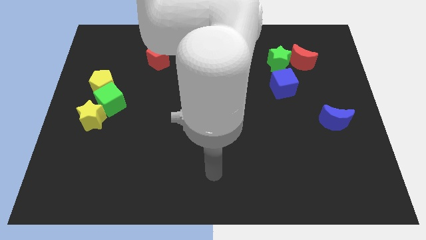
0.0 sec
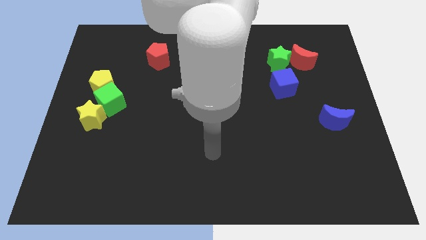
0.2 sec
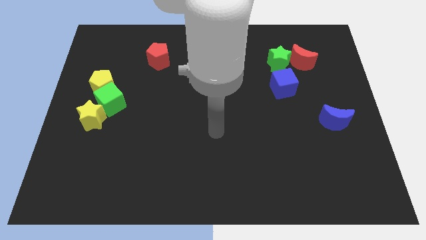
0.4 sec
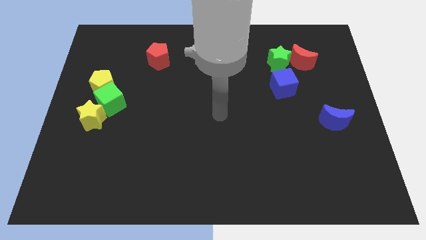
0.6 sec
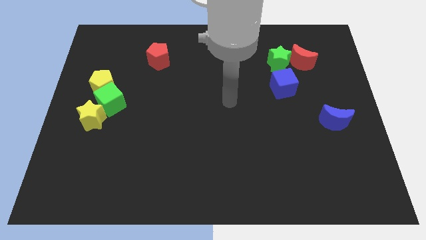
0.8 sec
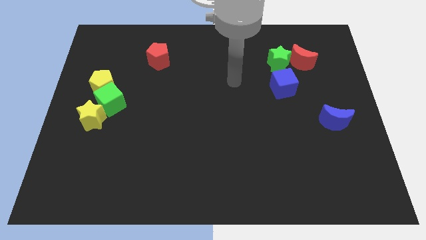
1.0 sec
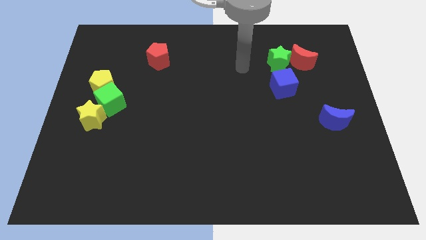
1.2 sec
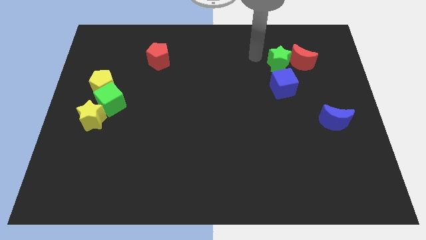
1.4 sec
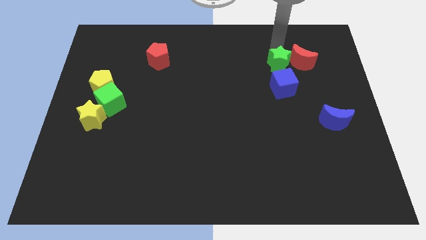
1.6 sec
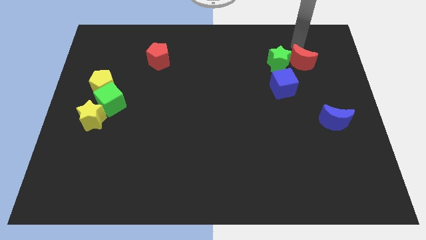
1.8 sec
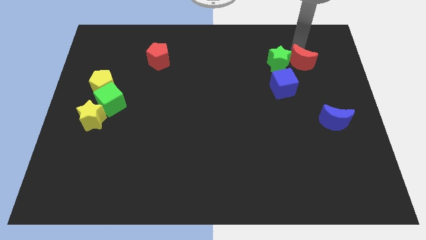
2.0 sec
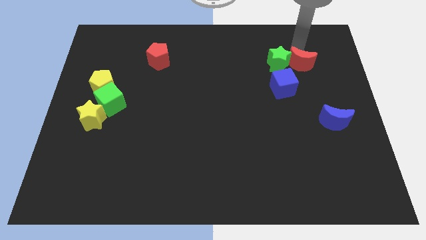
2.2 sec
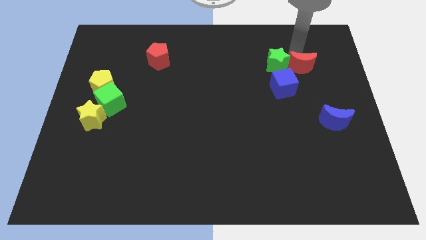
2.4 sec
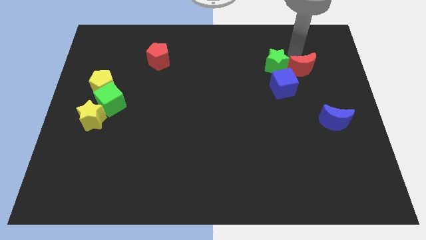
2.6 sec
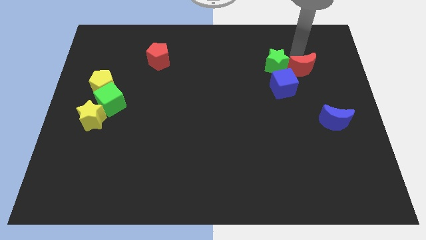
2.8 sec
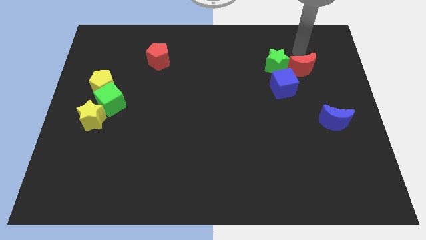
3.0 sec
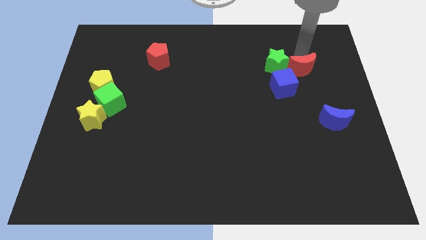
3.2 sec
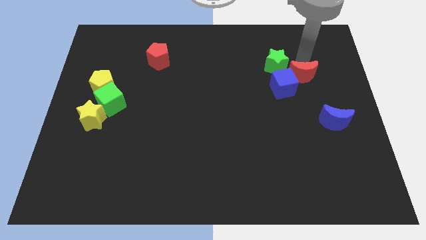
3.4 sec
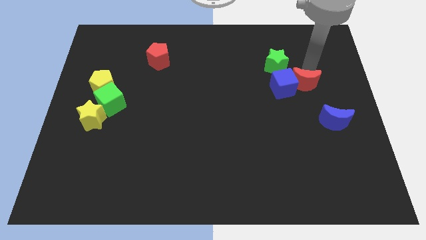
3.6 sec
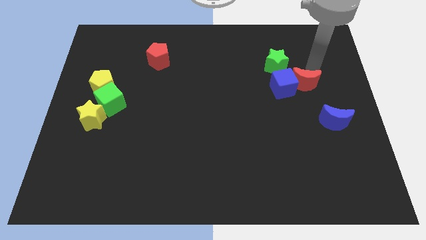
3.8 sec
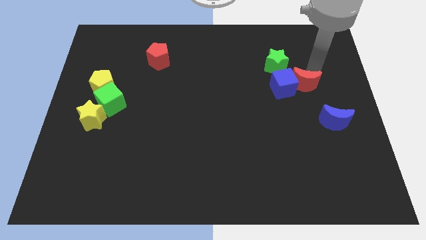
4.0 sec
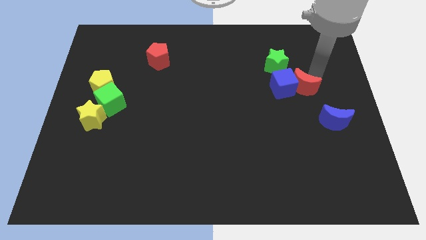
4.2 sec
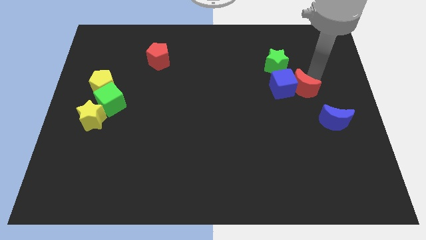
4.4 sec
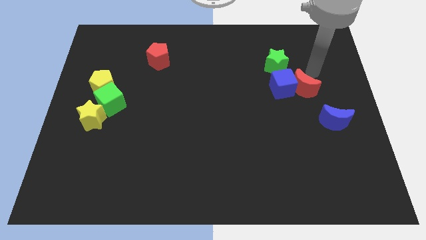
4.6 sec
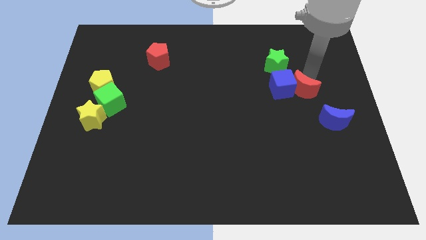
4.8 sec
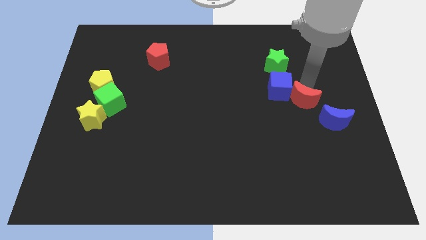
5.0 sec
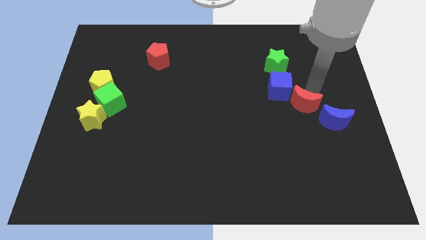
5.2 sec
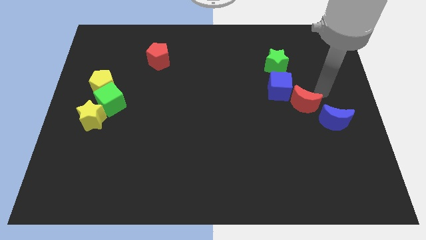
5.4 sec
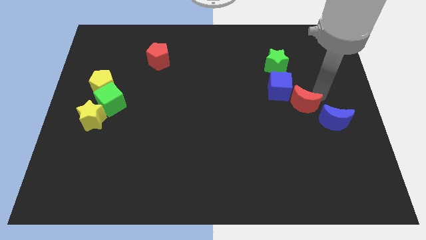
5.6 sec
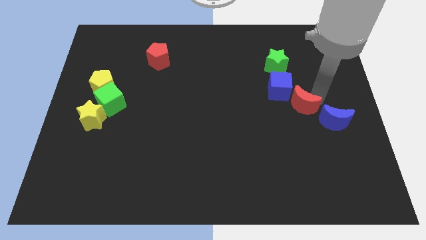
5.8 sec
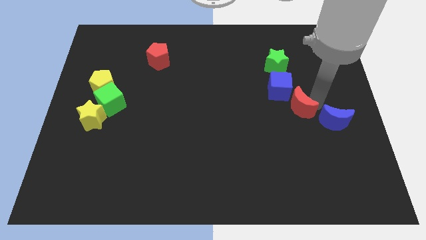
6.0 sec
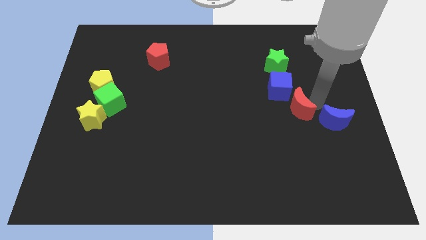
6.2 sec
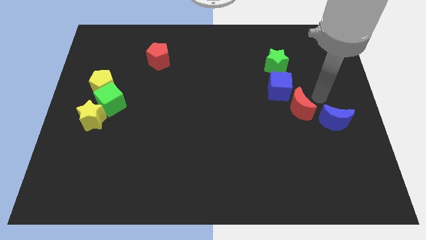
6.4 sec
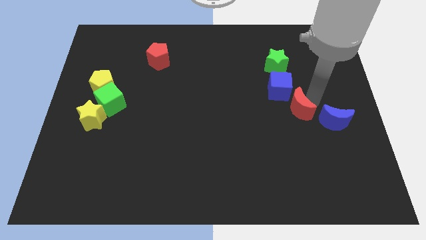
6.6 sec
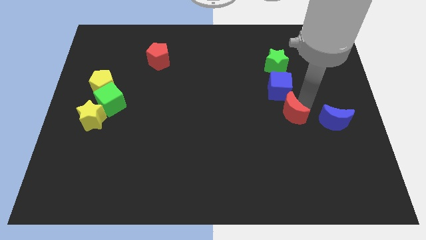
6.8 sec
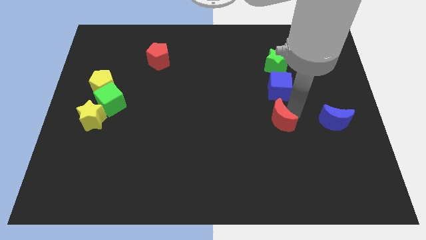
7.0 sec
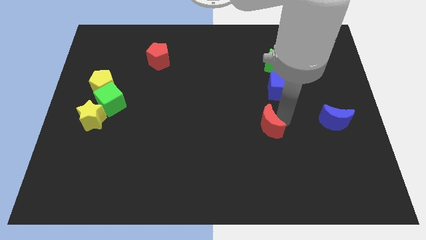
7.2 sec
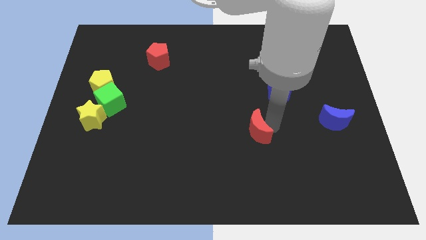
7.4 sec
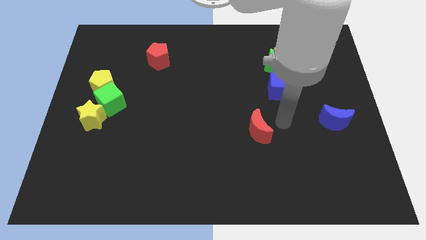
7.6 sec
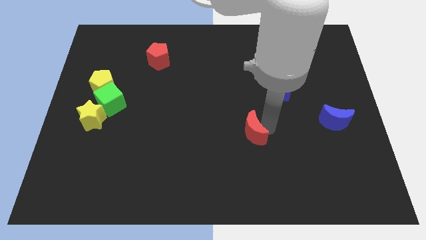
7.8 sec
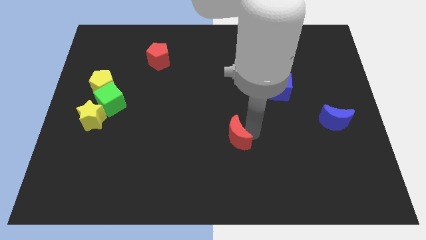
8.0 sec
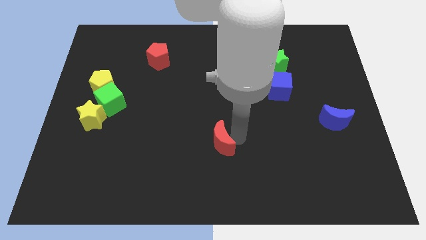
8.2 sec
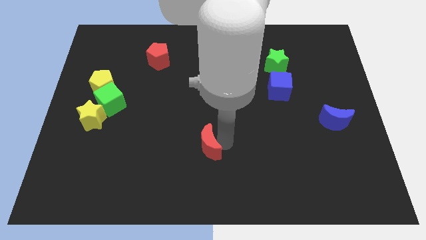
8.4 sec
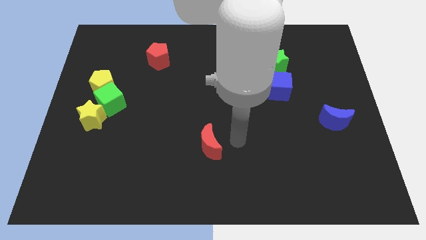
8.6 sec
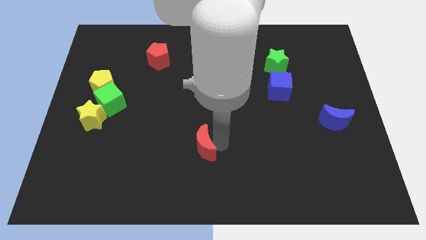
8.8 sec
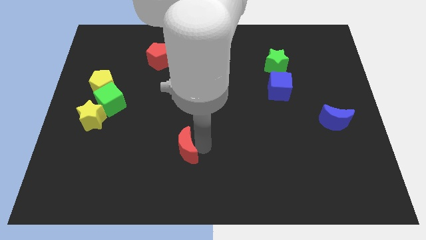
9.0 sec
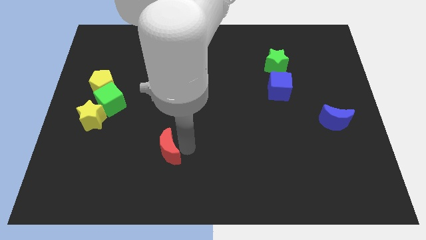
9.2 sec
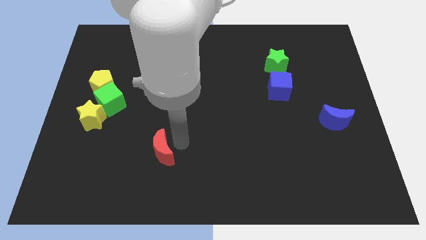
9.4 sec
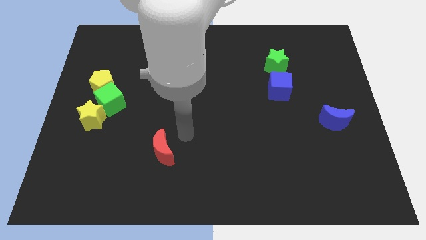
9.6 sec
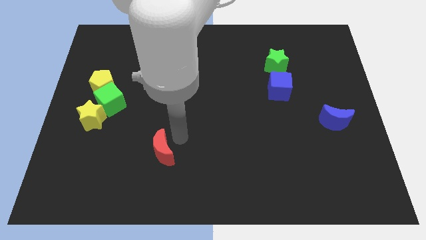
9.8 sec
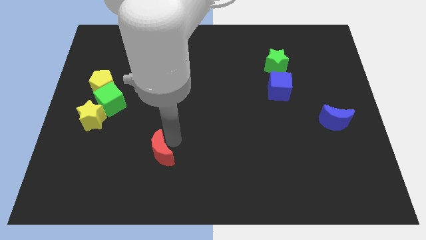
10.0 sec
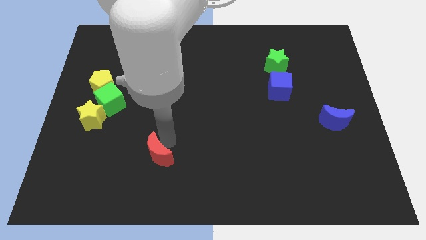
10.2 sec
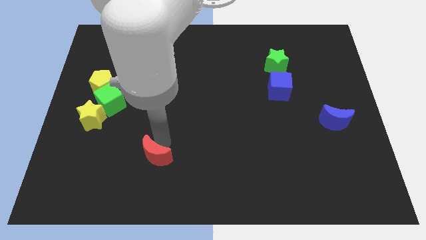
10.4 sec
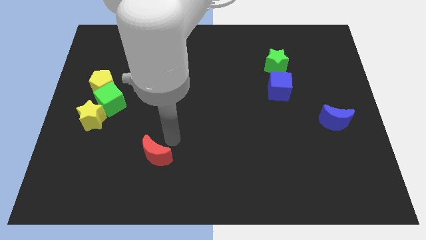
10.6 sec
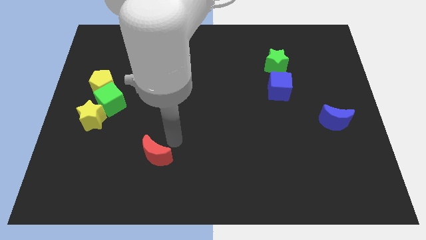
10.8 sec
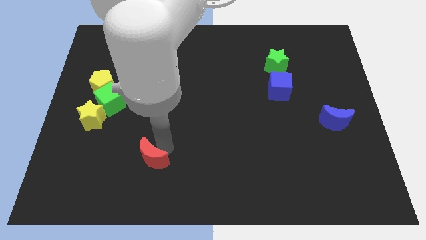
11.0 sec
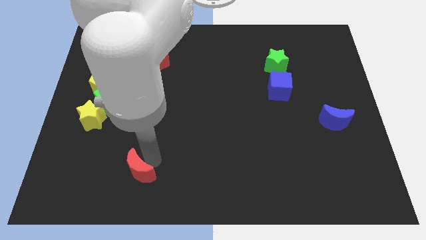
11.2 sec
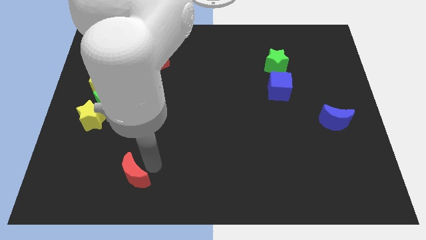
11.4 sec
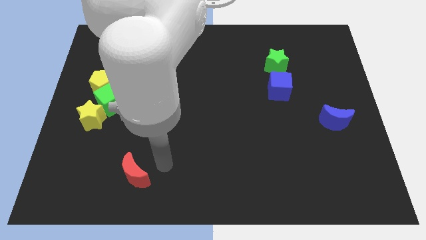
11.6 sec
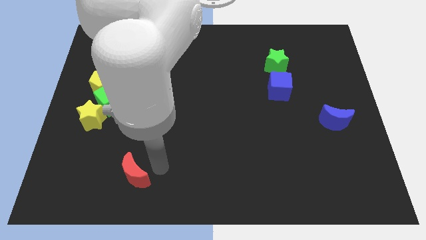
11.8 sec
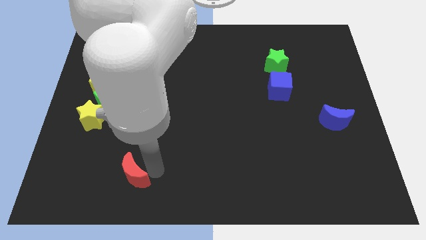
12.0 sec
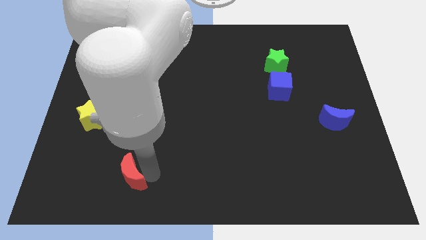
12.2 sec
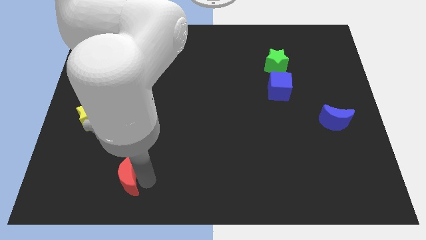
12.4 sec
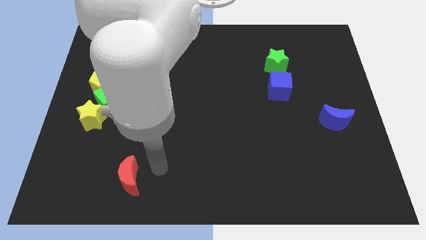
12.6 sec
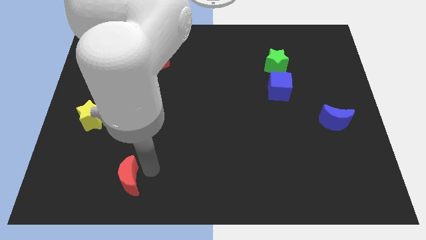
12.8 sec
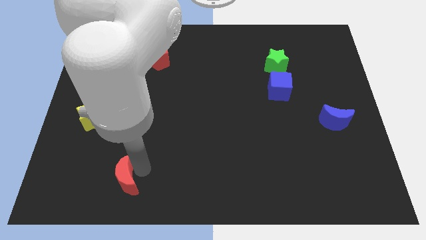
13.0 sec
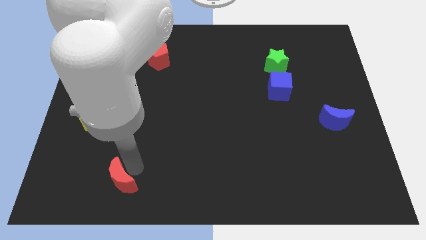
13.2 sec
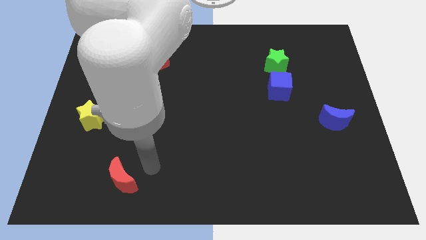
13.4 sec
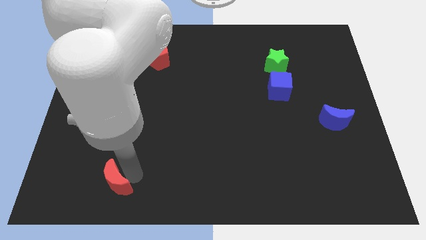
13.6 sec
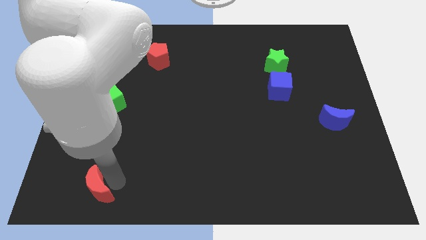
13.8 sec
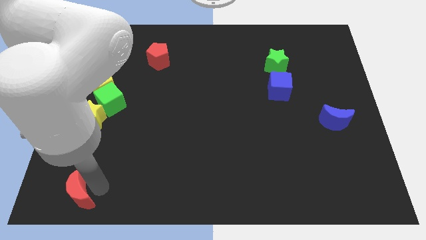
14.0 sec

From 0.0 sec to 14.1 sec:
push the red moon to the bottom left corner
